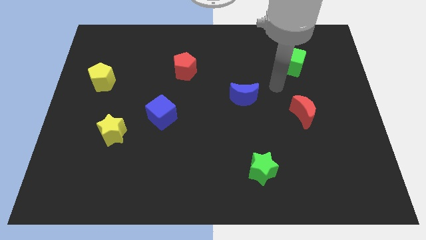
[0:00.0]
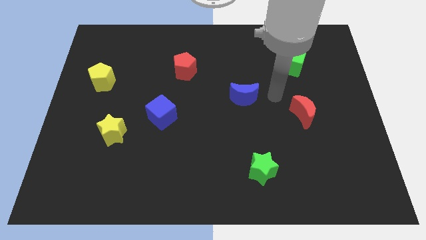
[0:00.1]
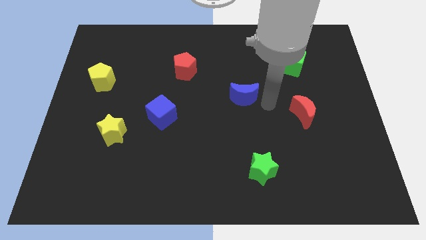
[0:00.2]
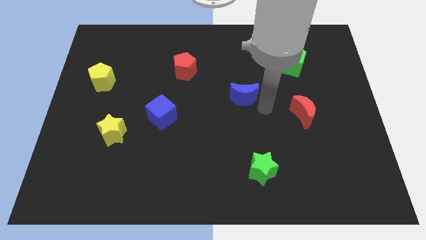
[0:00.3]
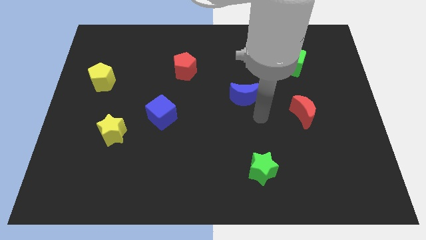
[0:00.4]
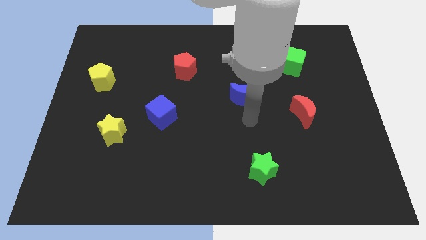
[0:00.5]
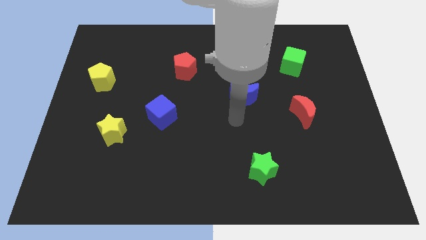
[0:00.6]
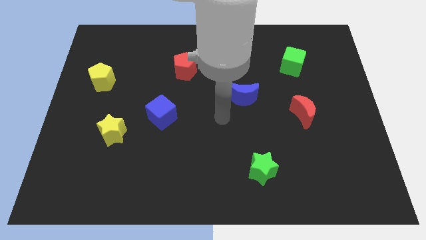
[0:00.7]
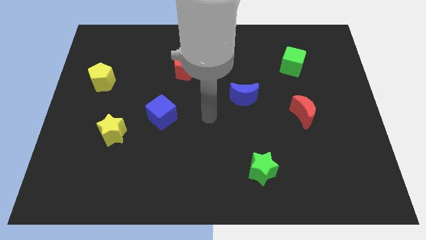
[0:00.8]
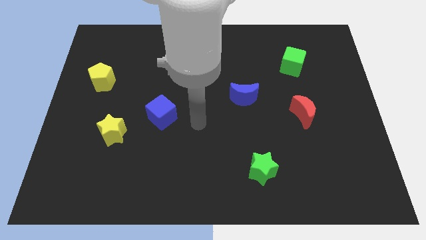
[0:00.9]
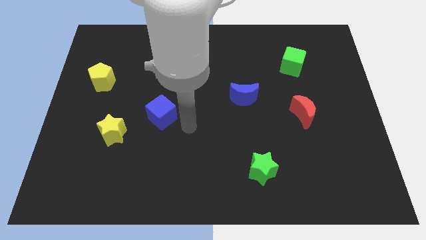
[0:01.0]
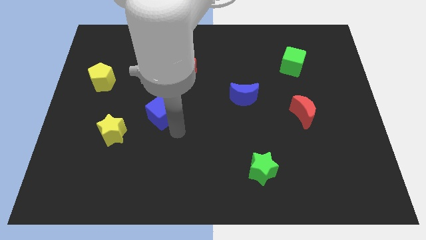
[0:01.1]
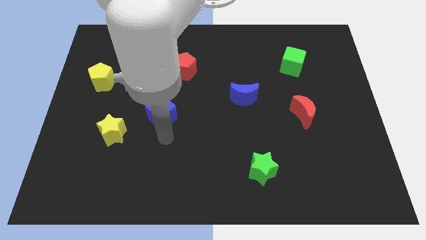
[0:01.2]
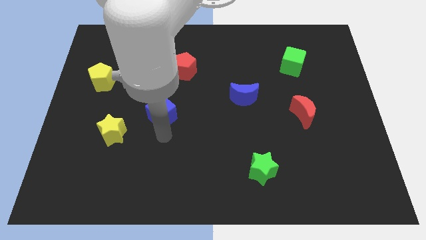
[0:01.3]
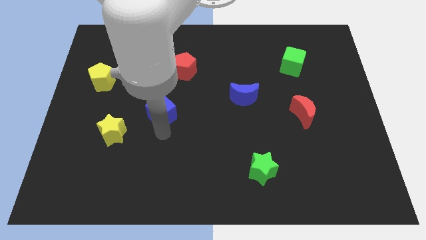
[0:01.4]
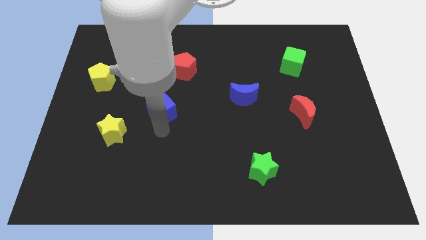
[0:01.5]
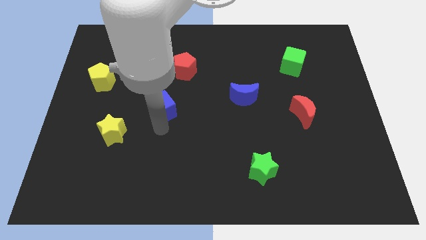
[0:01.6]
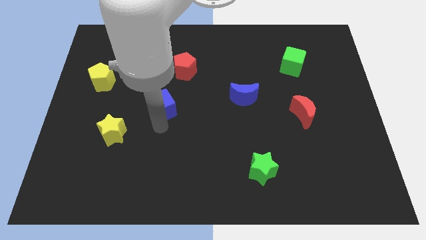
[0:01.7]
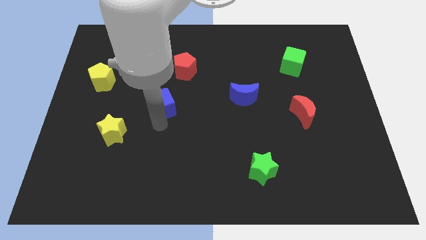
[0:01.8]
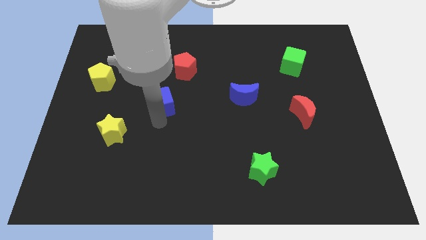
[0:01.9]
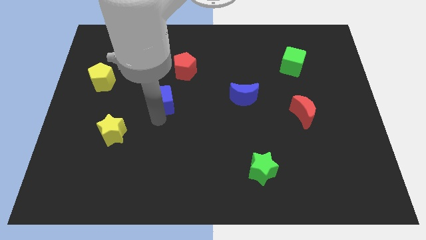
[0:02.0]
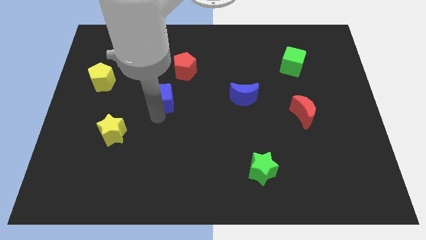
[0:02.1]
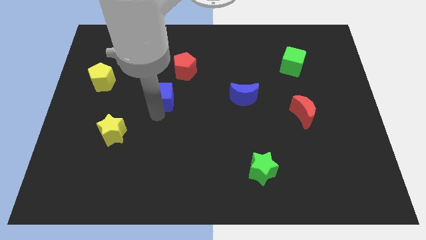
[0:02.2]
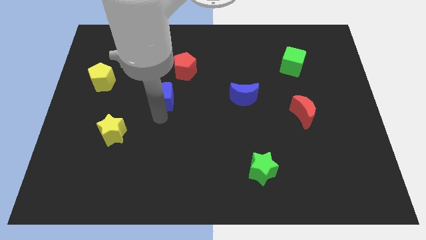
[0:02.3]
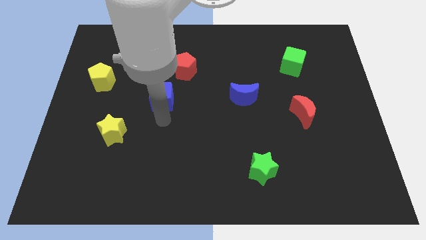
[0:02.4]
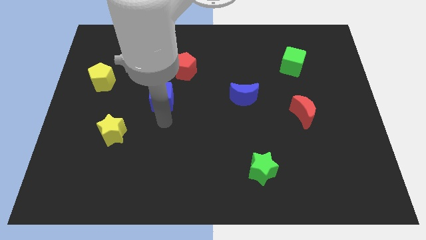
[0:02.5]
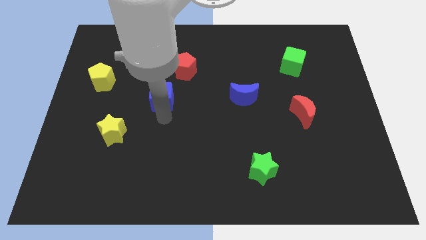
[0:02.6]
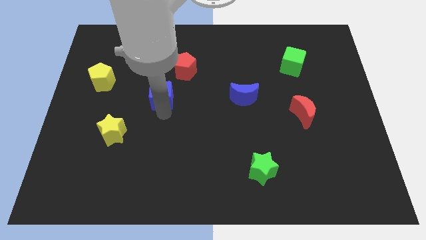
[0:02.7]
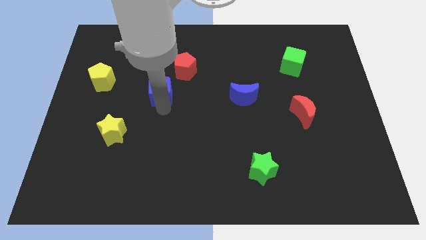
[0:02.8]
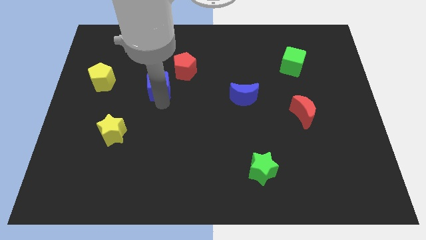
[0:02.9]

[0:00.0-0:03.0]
slightly slide the blue cube upwards

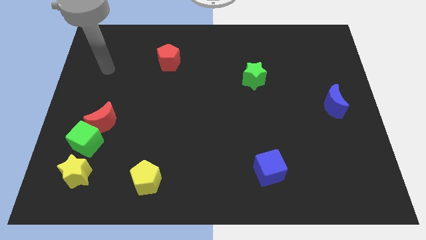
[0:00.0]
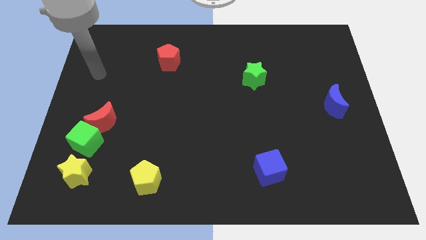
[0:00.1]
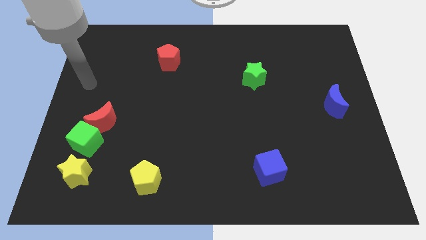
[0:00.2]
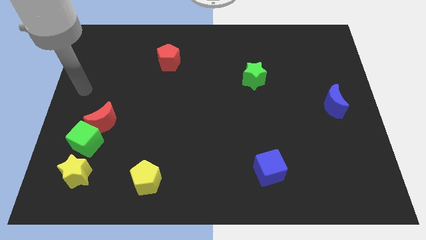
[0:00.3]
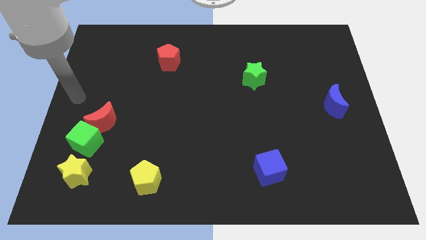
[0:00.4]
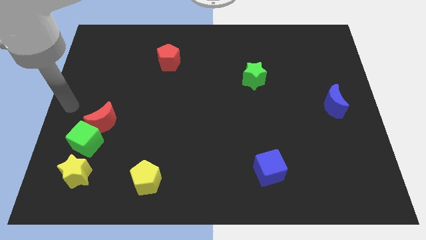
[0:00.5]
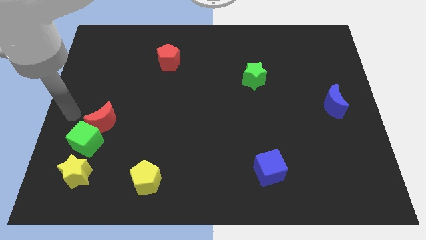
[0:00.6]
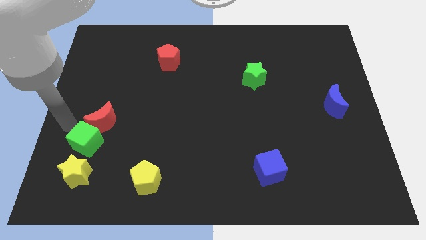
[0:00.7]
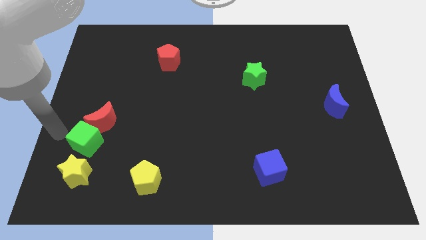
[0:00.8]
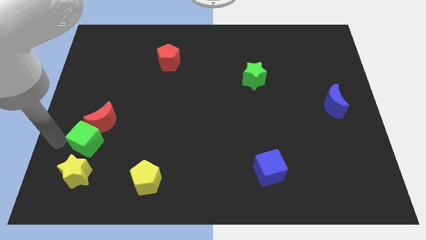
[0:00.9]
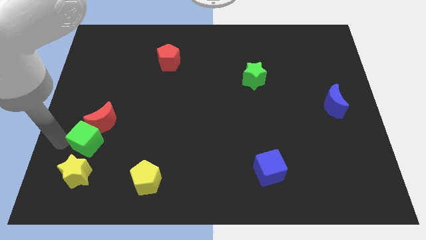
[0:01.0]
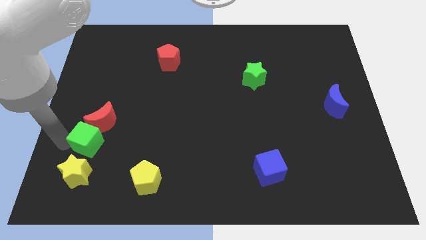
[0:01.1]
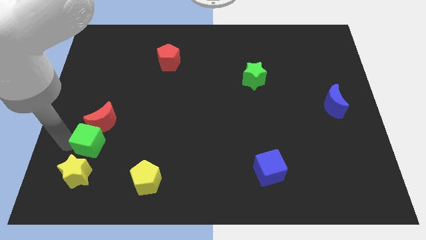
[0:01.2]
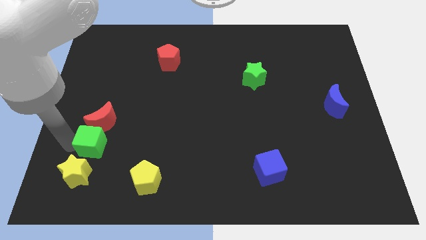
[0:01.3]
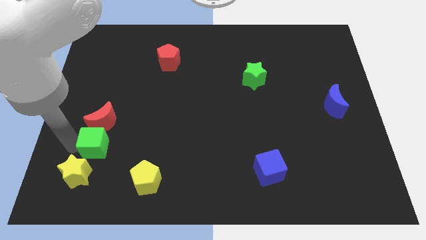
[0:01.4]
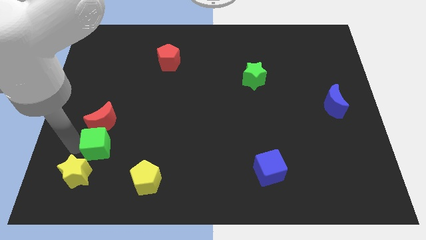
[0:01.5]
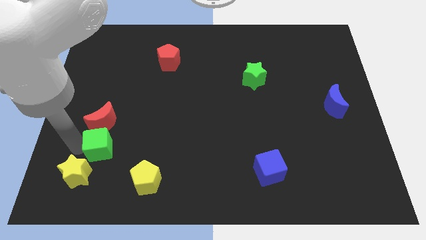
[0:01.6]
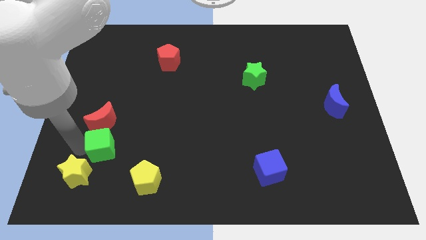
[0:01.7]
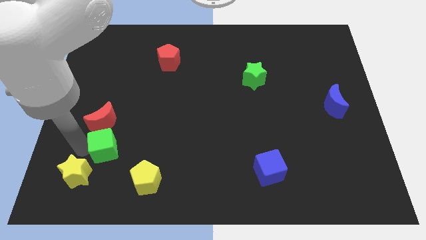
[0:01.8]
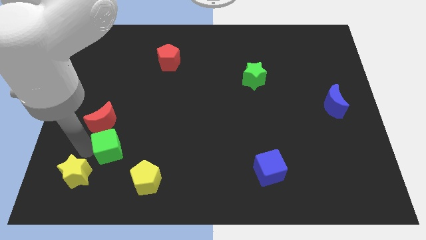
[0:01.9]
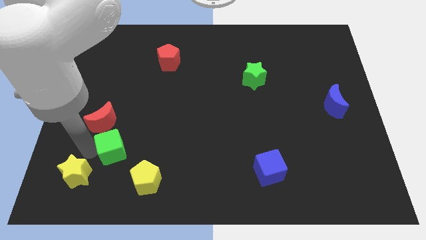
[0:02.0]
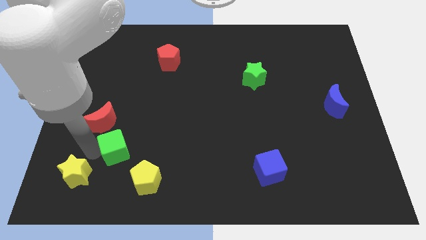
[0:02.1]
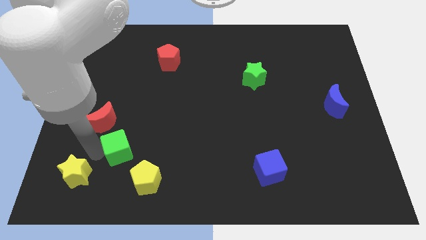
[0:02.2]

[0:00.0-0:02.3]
push the green cube slightly right

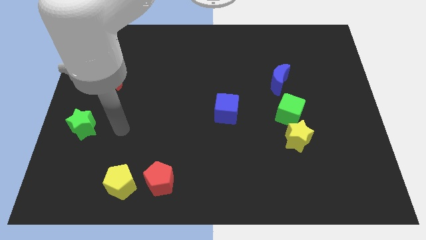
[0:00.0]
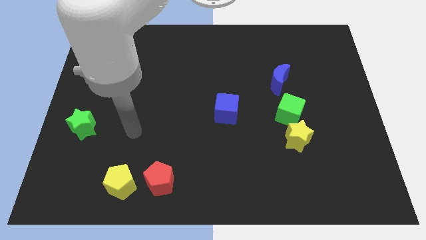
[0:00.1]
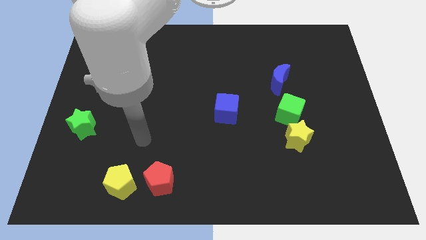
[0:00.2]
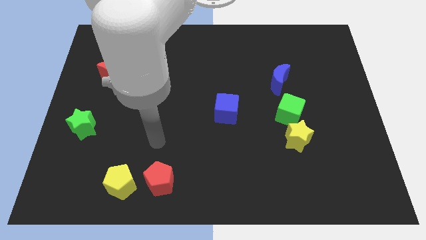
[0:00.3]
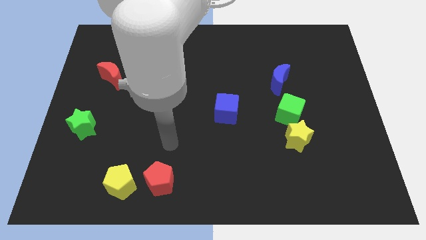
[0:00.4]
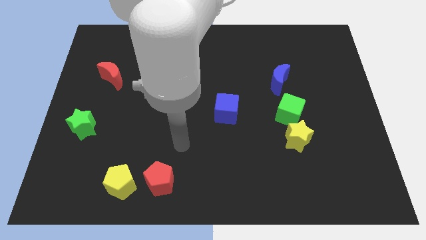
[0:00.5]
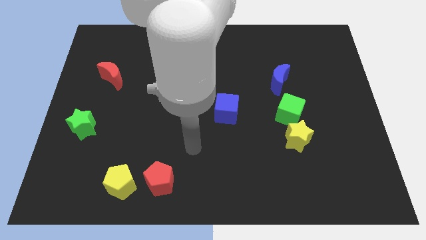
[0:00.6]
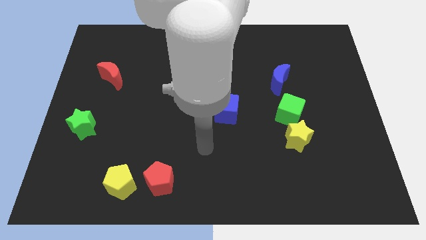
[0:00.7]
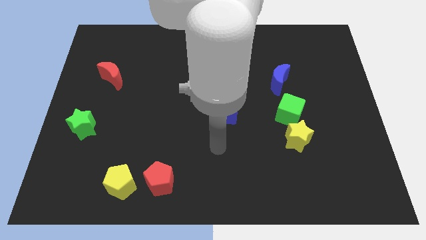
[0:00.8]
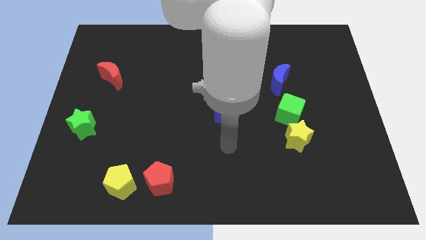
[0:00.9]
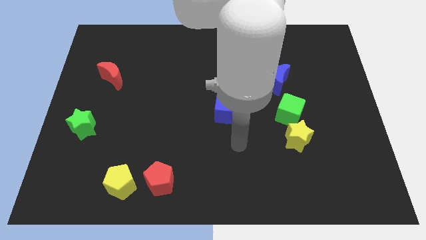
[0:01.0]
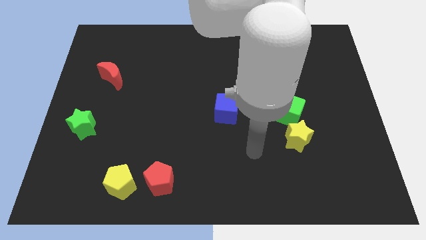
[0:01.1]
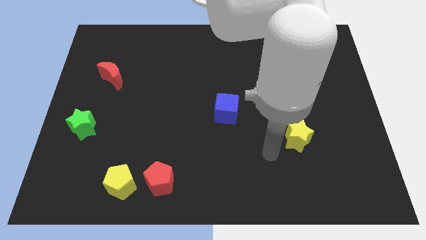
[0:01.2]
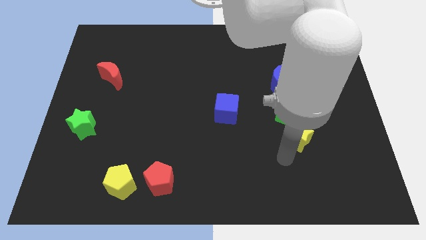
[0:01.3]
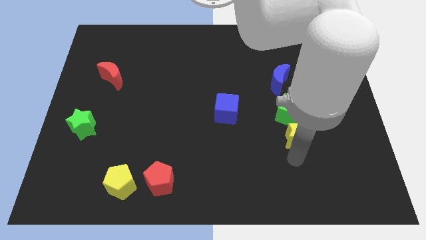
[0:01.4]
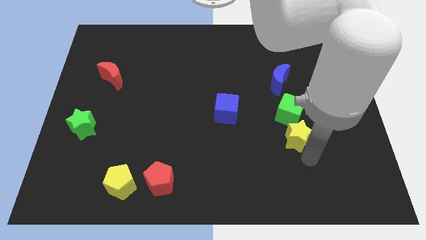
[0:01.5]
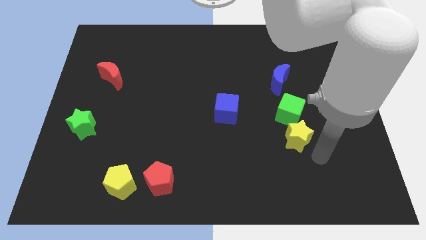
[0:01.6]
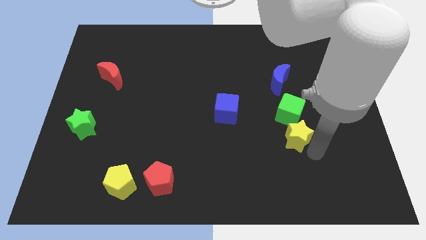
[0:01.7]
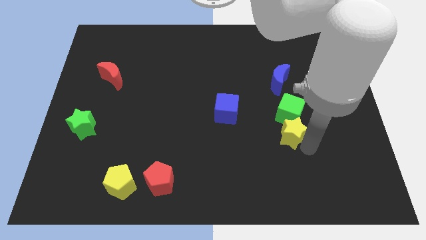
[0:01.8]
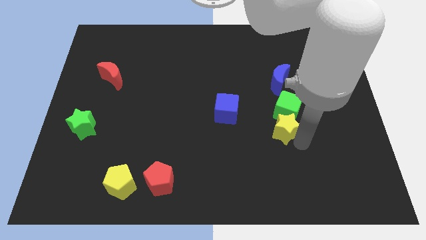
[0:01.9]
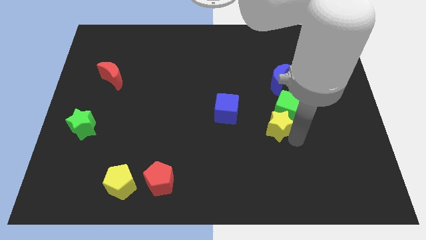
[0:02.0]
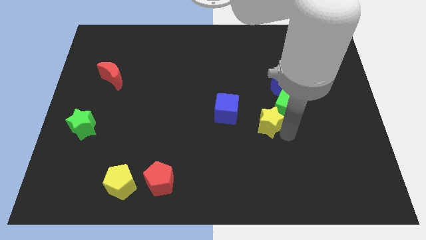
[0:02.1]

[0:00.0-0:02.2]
move the yellow star upwards and left slightly

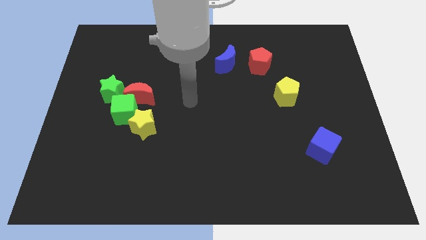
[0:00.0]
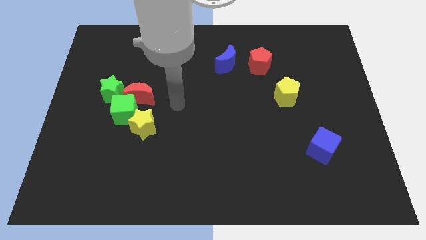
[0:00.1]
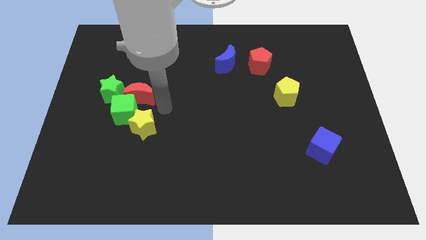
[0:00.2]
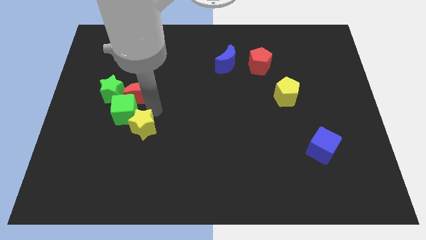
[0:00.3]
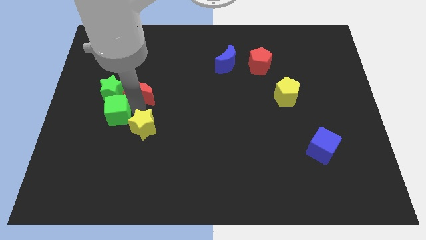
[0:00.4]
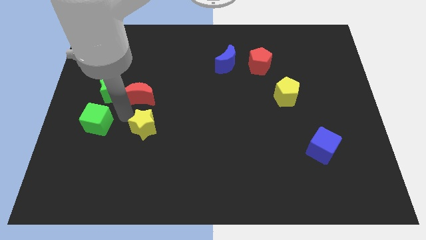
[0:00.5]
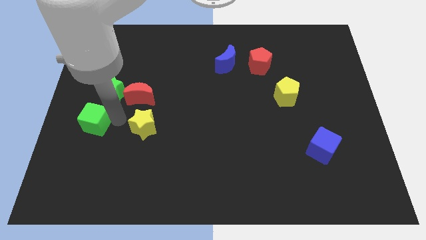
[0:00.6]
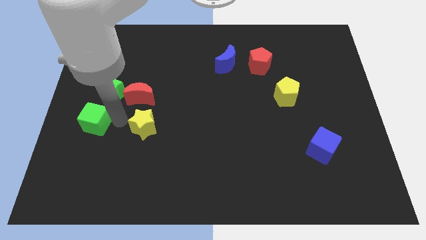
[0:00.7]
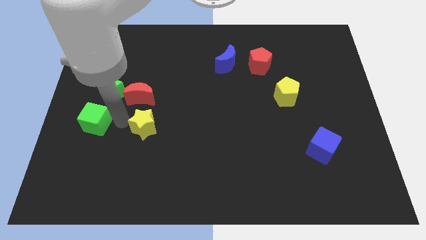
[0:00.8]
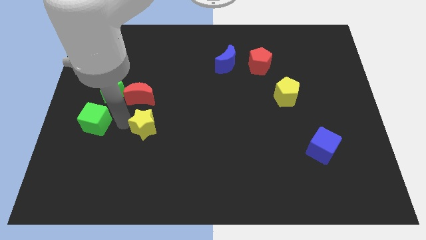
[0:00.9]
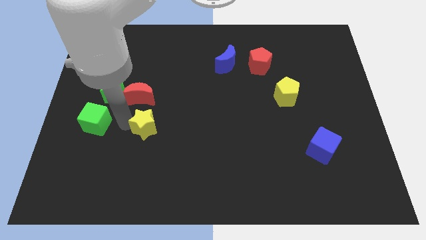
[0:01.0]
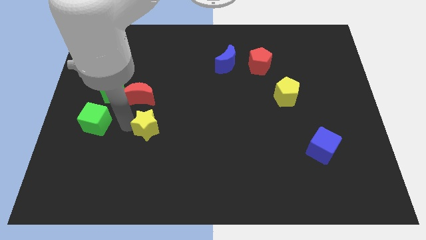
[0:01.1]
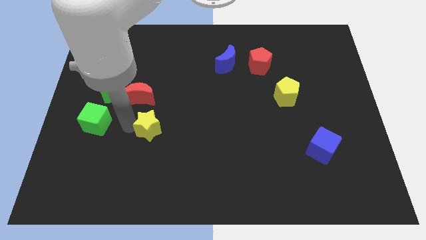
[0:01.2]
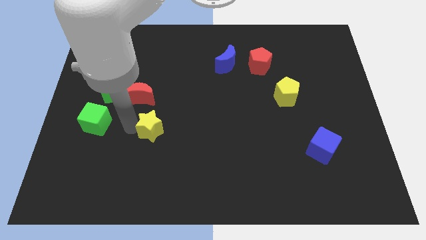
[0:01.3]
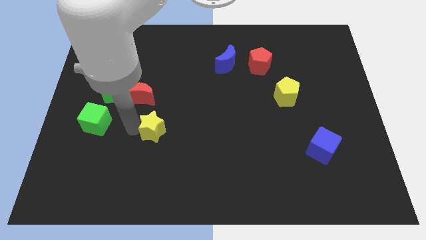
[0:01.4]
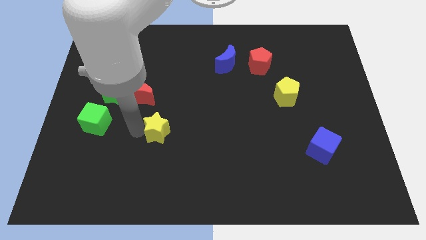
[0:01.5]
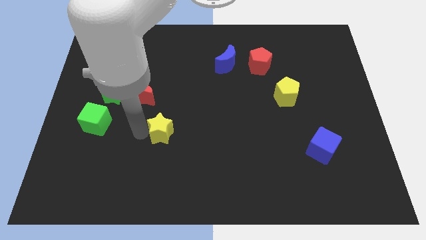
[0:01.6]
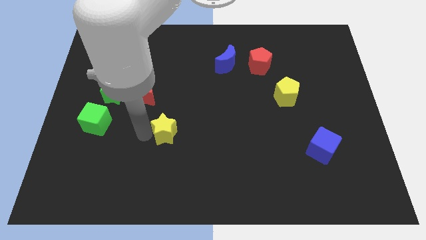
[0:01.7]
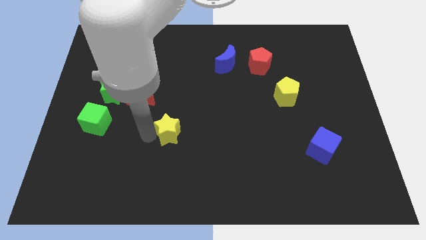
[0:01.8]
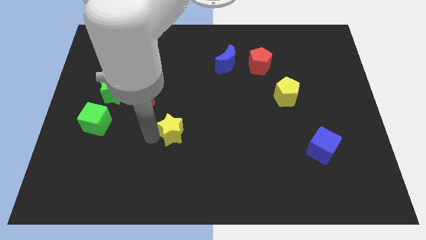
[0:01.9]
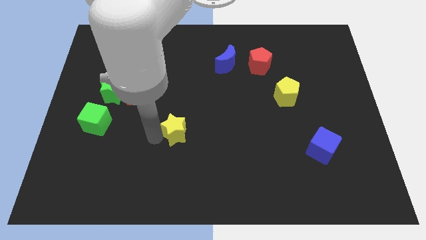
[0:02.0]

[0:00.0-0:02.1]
move the yellow star a little bit right
